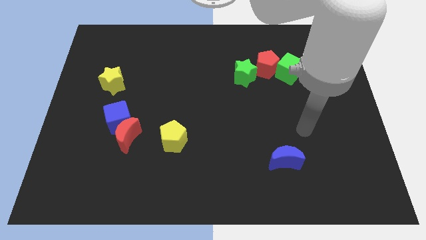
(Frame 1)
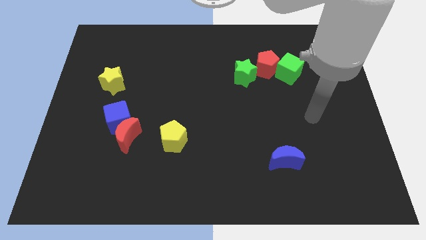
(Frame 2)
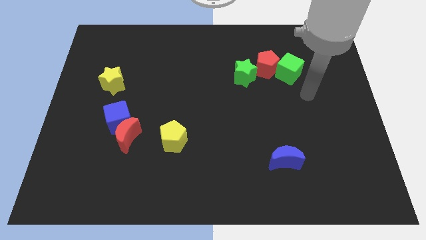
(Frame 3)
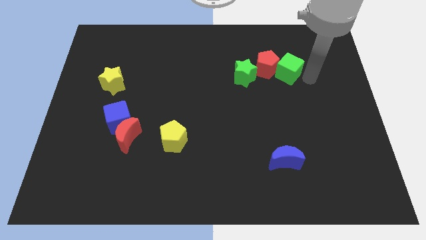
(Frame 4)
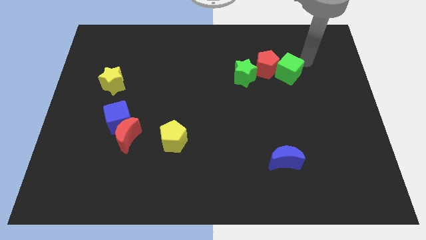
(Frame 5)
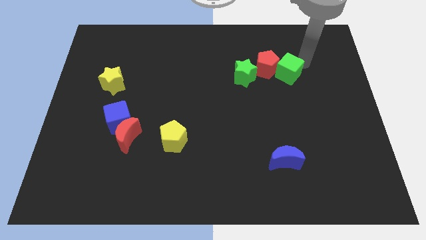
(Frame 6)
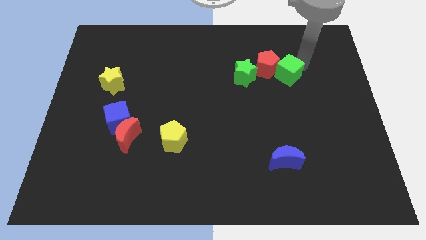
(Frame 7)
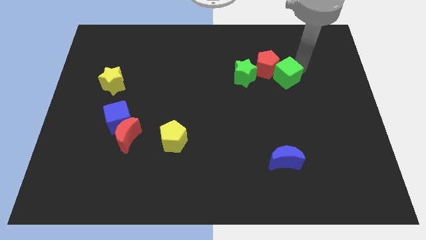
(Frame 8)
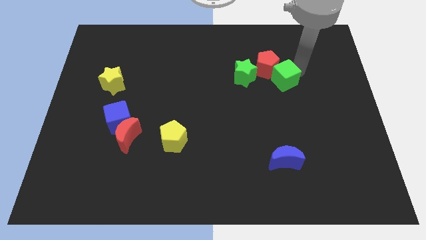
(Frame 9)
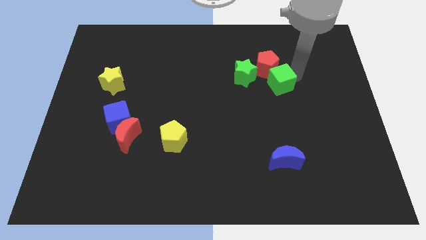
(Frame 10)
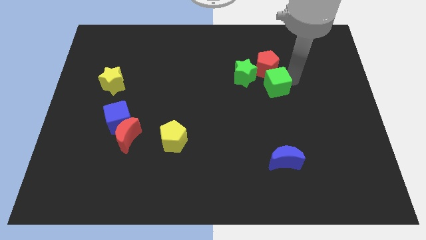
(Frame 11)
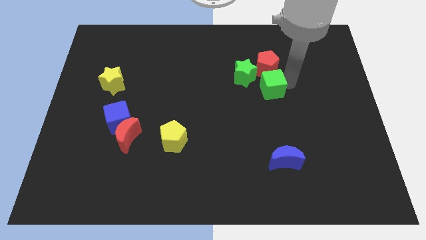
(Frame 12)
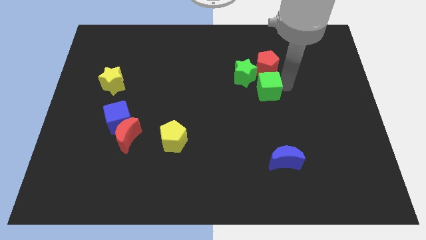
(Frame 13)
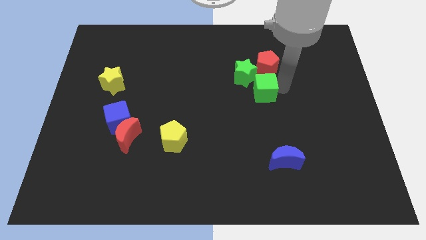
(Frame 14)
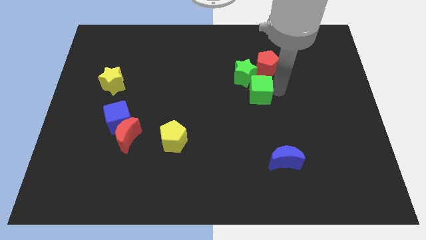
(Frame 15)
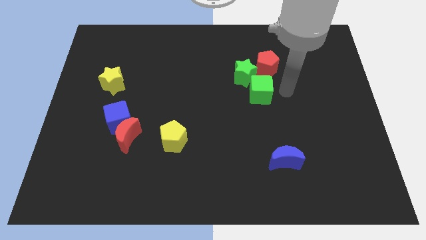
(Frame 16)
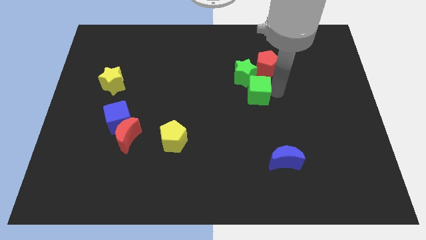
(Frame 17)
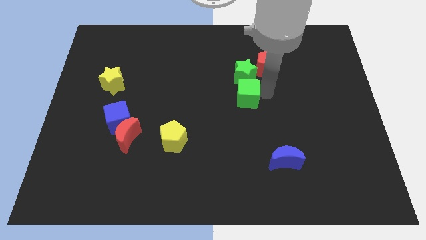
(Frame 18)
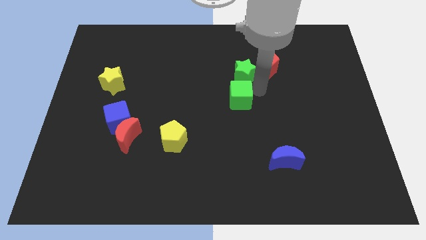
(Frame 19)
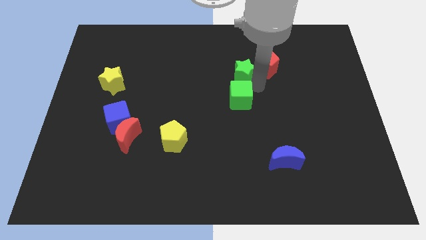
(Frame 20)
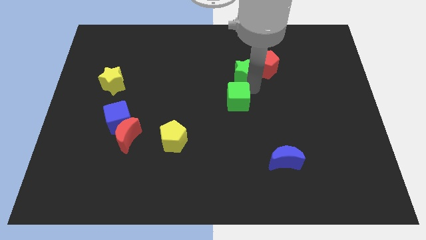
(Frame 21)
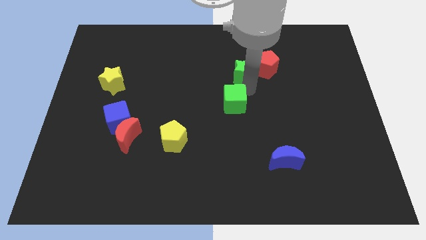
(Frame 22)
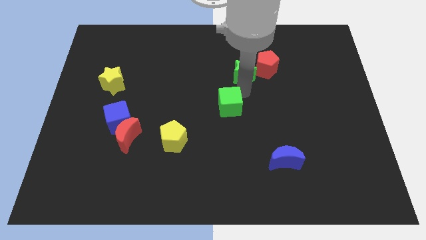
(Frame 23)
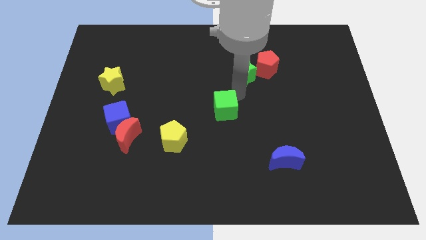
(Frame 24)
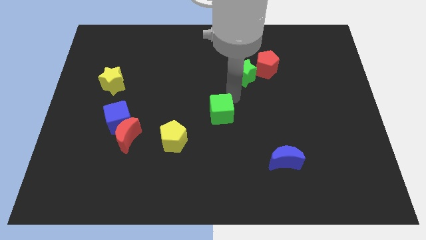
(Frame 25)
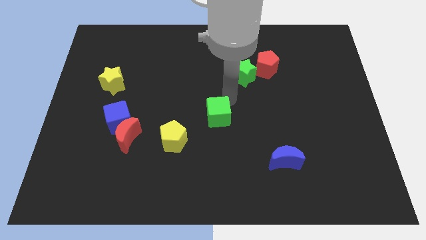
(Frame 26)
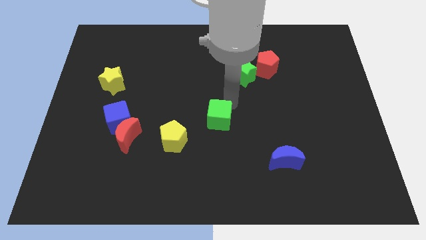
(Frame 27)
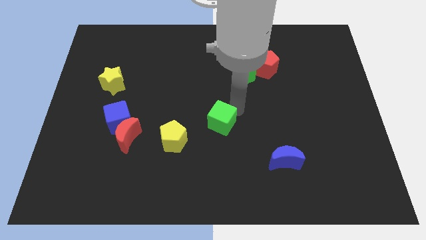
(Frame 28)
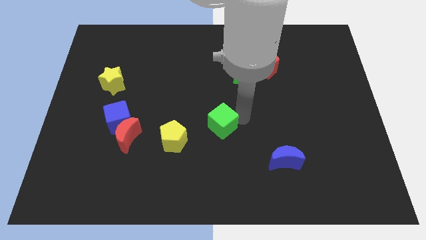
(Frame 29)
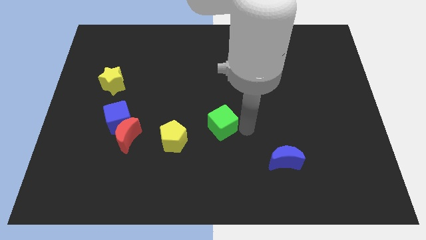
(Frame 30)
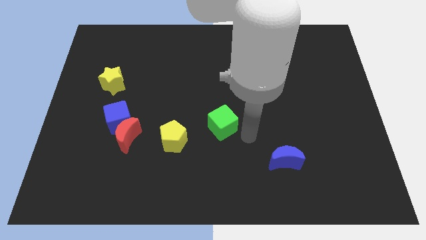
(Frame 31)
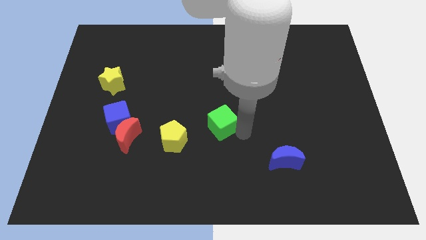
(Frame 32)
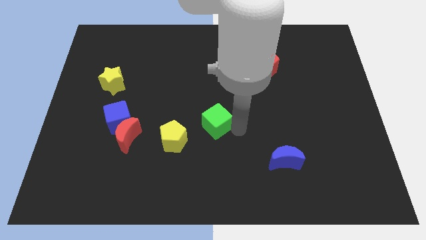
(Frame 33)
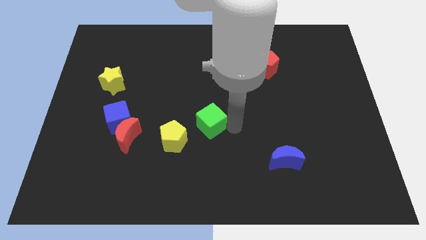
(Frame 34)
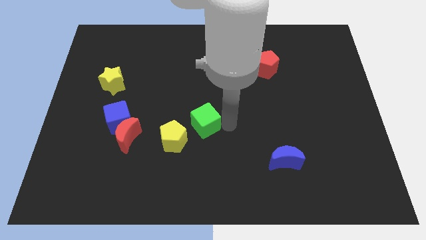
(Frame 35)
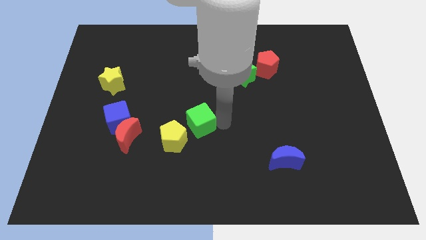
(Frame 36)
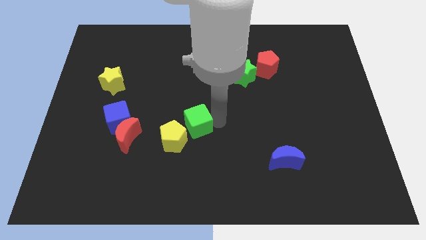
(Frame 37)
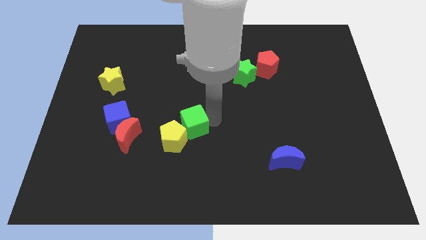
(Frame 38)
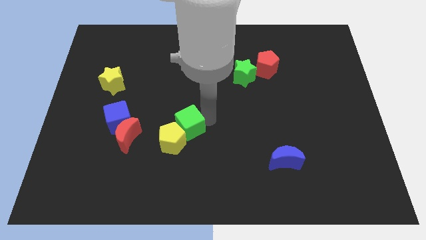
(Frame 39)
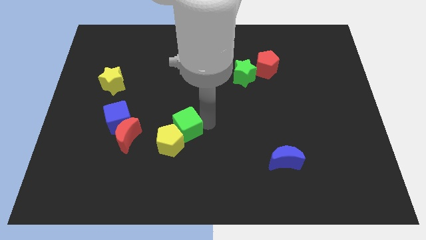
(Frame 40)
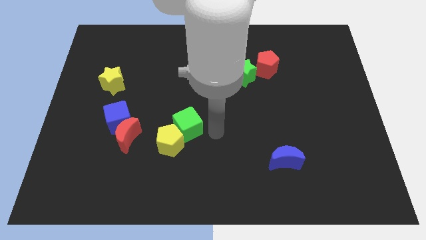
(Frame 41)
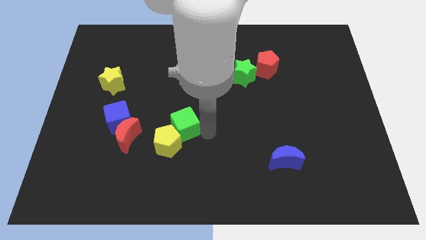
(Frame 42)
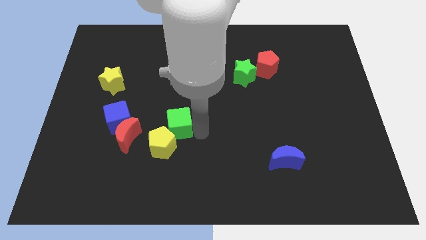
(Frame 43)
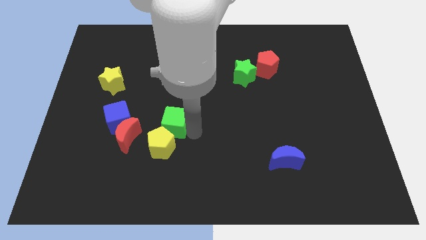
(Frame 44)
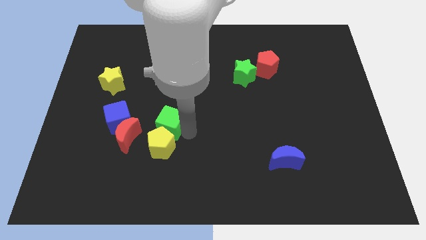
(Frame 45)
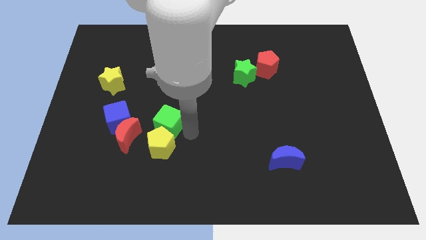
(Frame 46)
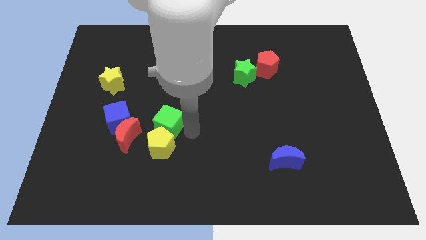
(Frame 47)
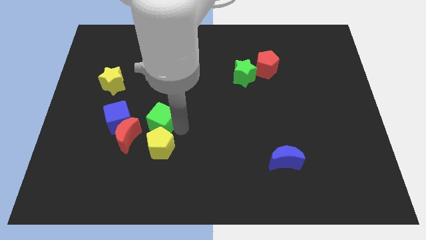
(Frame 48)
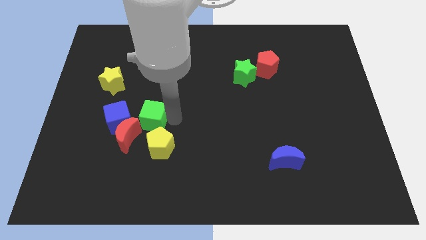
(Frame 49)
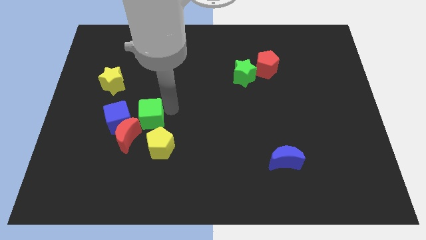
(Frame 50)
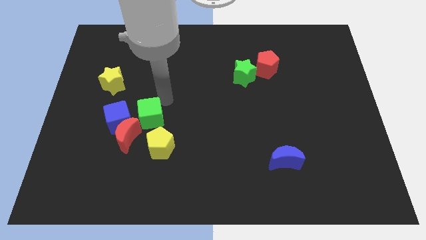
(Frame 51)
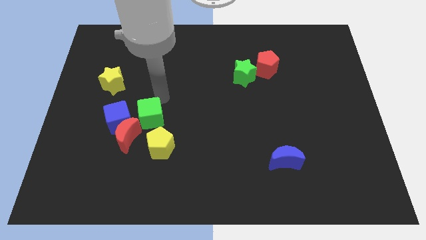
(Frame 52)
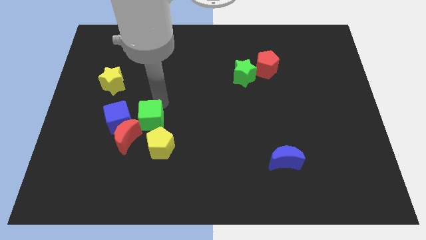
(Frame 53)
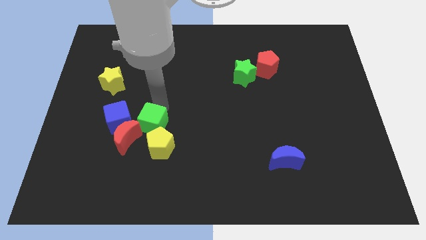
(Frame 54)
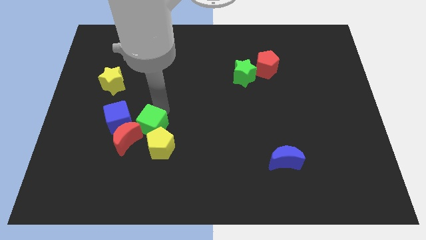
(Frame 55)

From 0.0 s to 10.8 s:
move the green cube to the bottom right of the blue cube

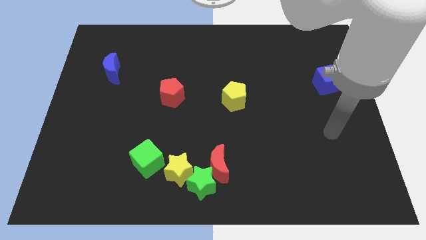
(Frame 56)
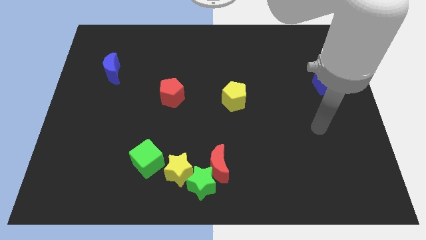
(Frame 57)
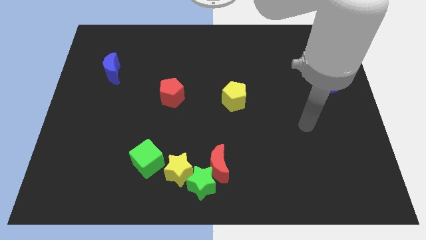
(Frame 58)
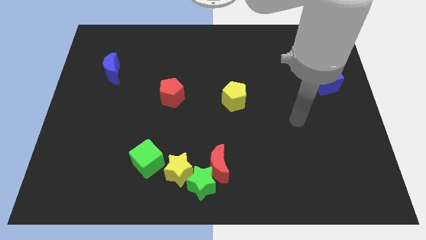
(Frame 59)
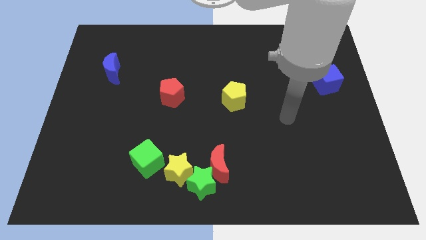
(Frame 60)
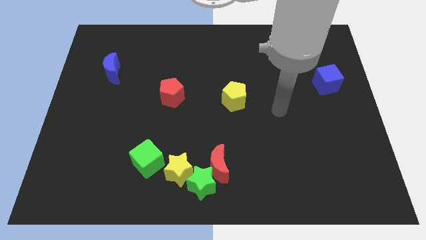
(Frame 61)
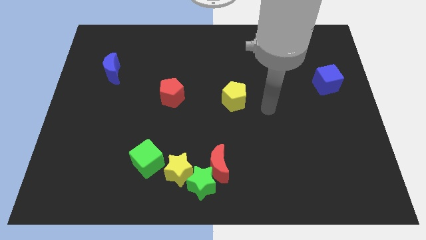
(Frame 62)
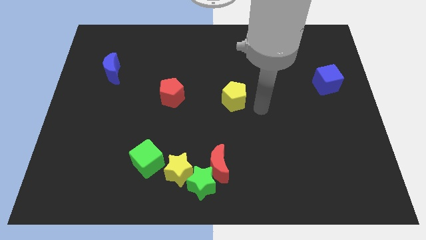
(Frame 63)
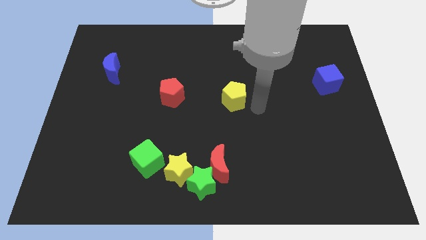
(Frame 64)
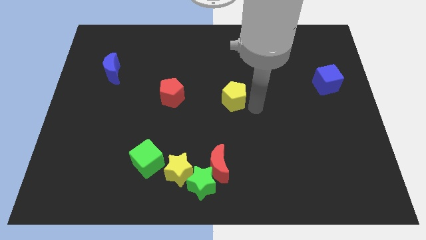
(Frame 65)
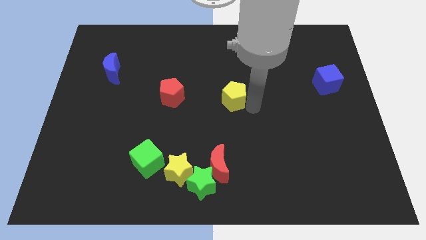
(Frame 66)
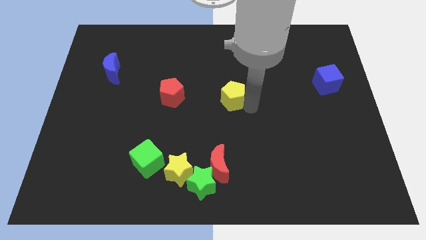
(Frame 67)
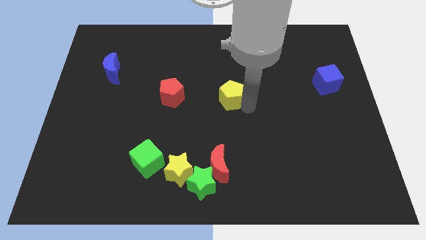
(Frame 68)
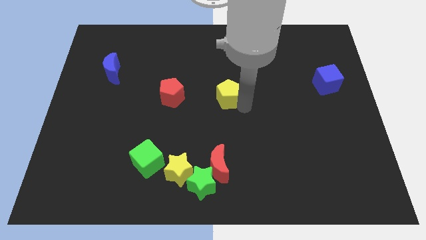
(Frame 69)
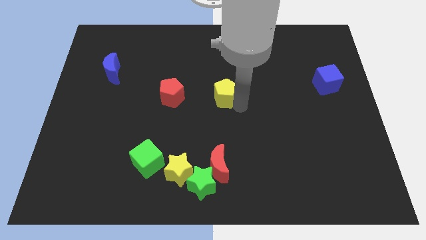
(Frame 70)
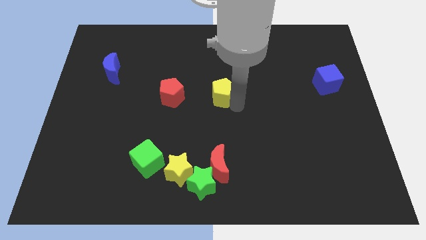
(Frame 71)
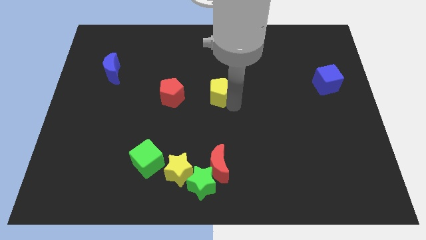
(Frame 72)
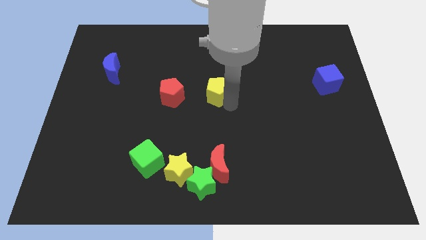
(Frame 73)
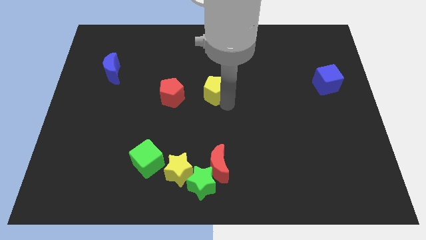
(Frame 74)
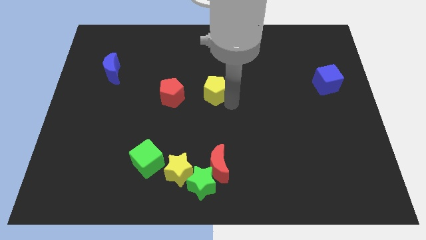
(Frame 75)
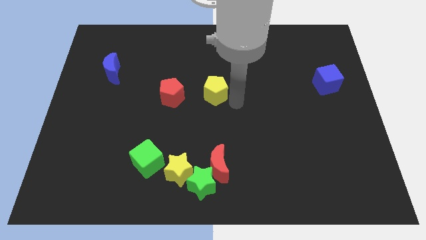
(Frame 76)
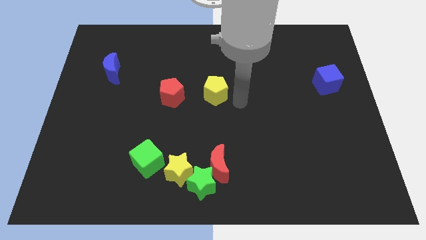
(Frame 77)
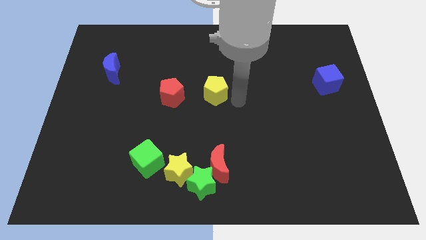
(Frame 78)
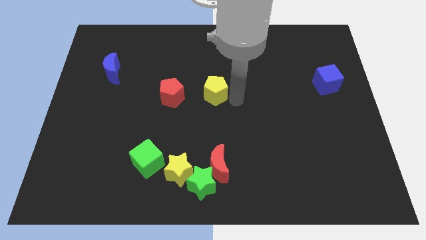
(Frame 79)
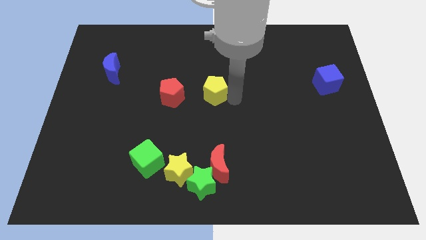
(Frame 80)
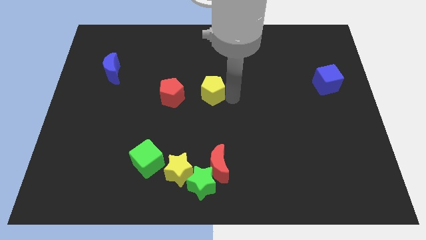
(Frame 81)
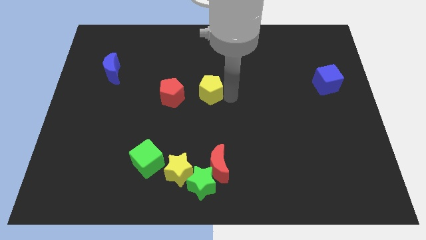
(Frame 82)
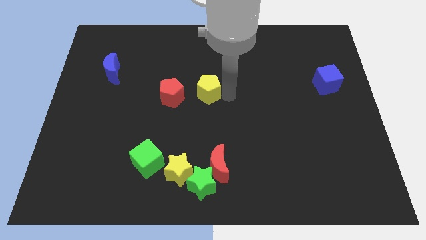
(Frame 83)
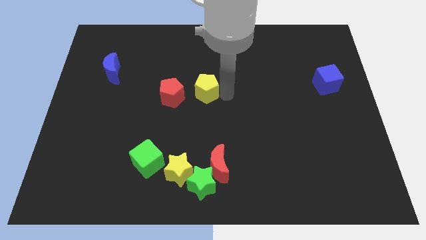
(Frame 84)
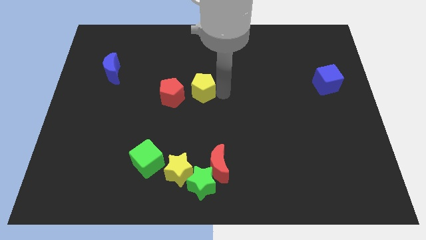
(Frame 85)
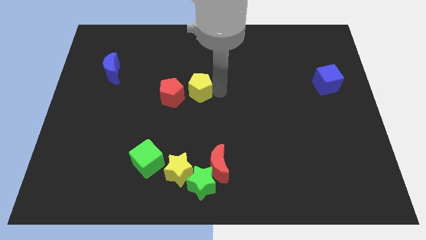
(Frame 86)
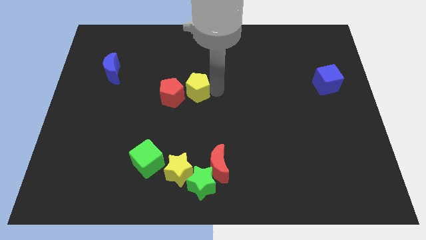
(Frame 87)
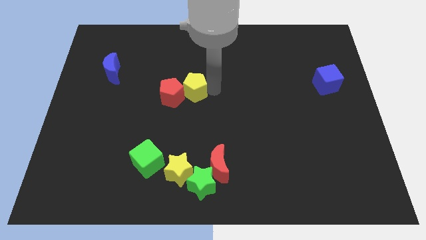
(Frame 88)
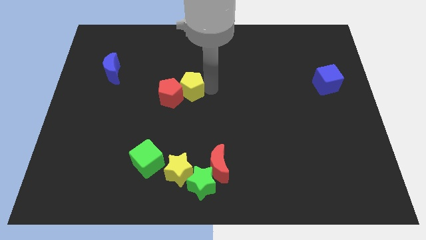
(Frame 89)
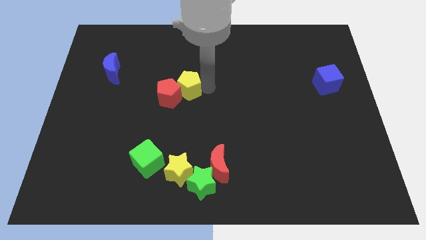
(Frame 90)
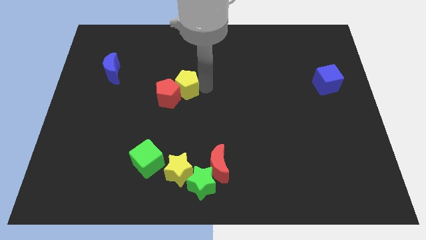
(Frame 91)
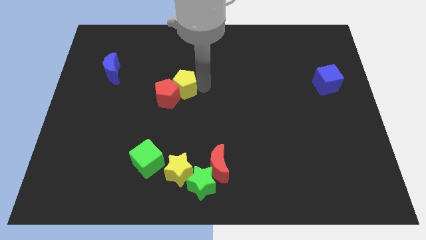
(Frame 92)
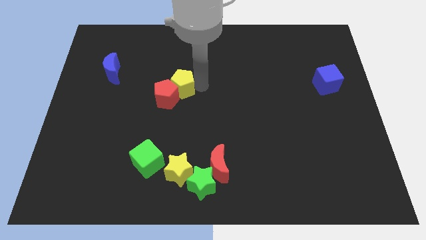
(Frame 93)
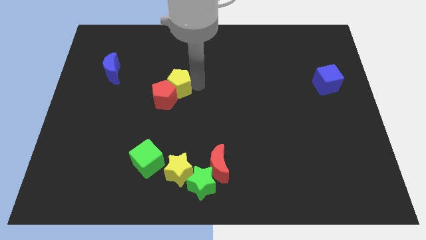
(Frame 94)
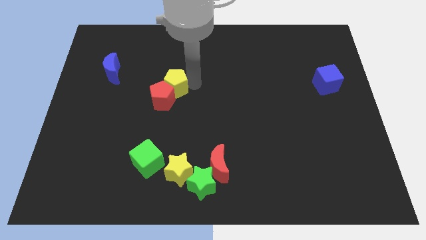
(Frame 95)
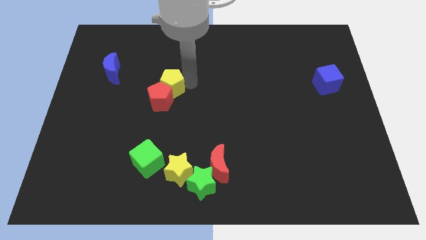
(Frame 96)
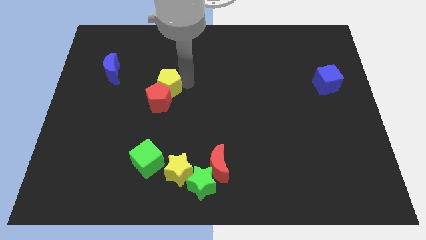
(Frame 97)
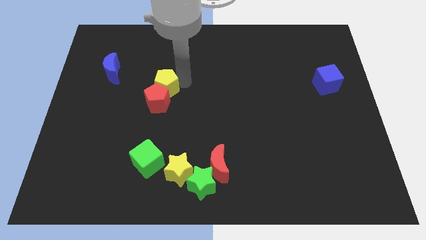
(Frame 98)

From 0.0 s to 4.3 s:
put the yellow pentagon to the top left side of the red pentagon
